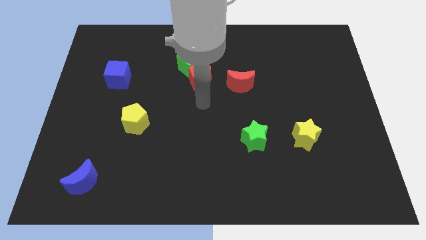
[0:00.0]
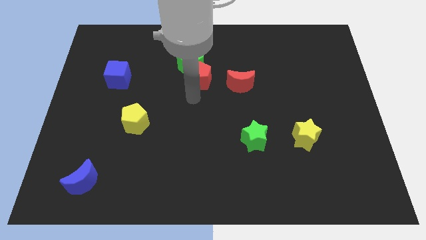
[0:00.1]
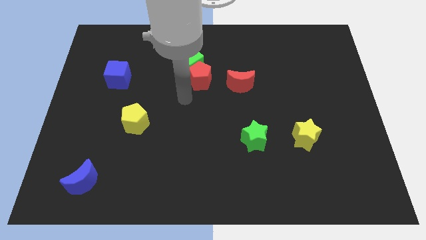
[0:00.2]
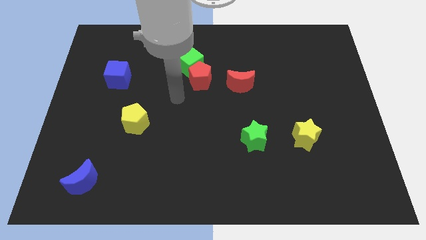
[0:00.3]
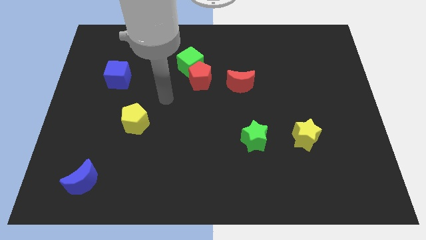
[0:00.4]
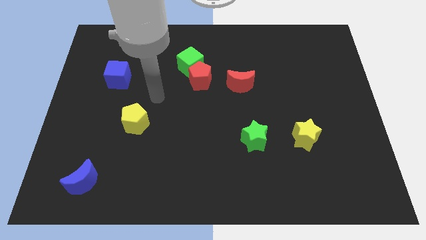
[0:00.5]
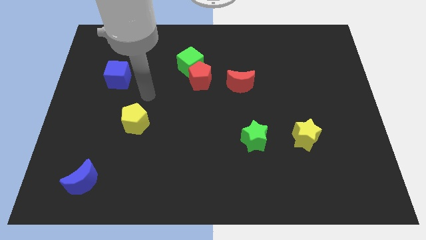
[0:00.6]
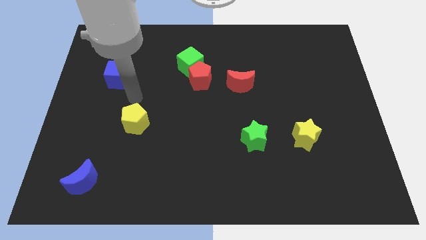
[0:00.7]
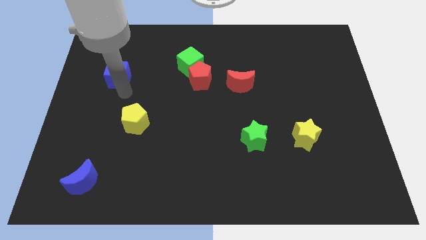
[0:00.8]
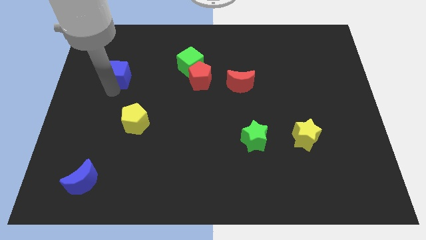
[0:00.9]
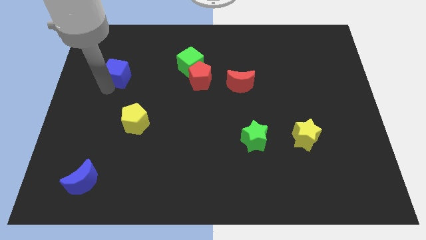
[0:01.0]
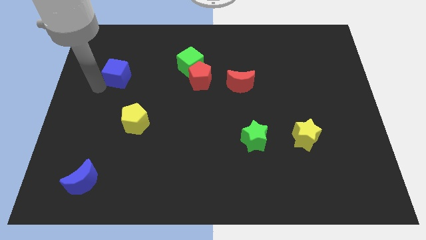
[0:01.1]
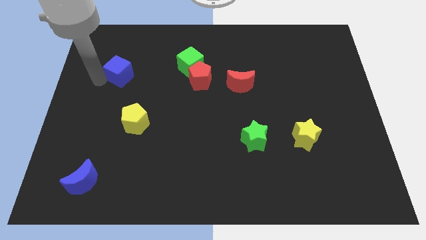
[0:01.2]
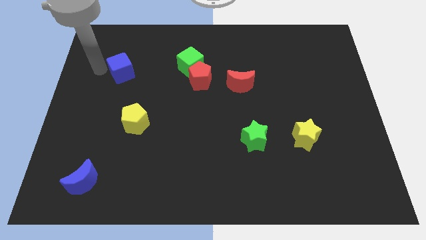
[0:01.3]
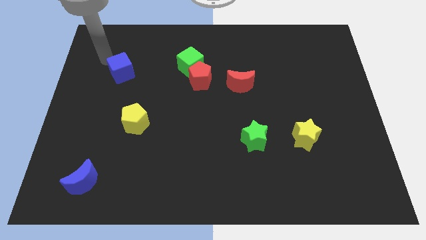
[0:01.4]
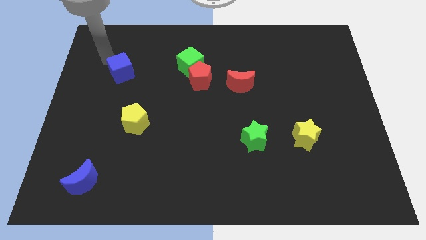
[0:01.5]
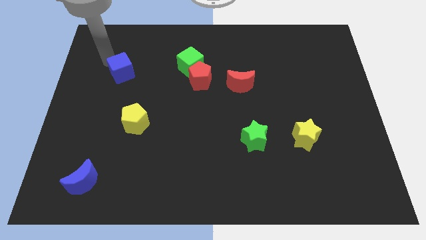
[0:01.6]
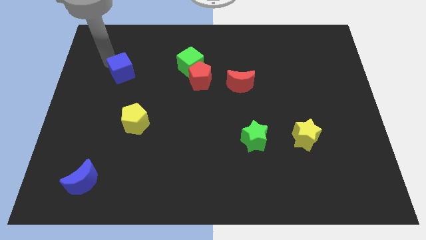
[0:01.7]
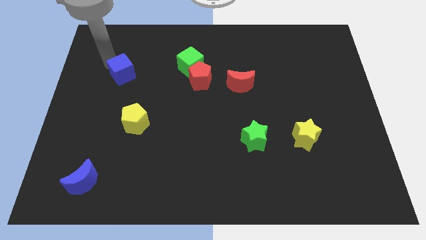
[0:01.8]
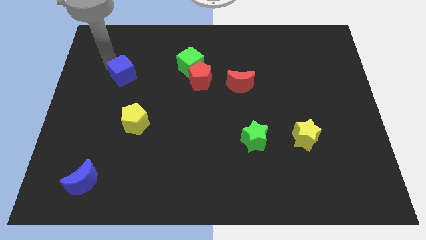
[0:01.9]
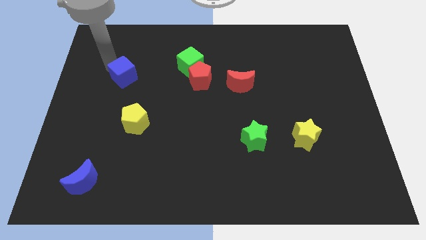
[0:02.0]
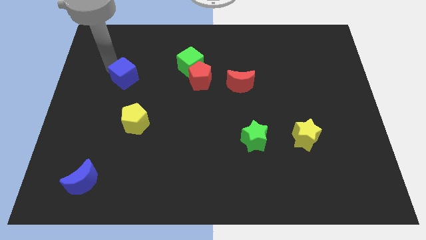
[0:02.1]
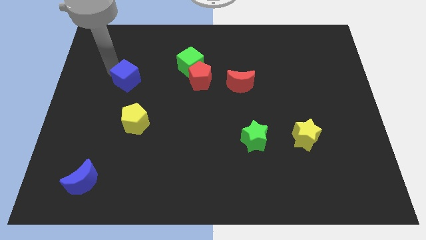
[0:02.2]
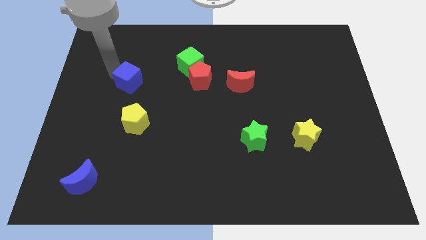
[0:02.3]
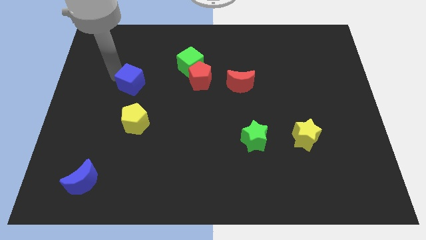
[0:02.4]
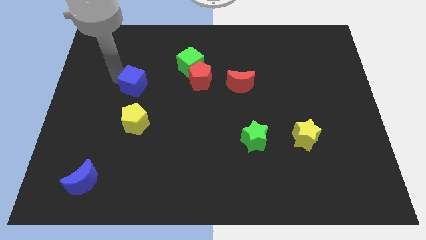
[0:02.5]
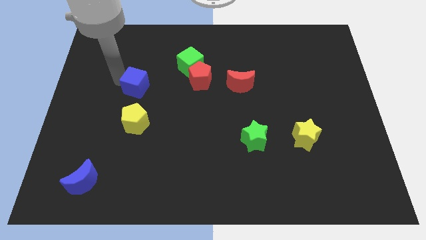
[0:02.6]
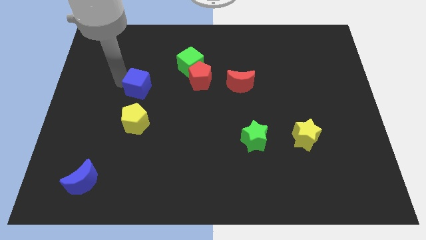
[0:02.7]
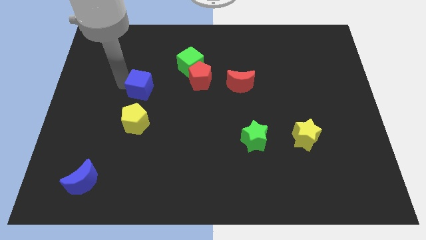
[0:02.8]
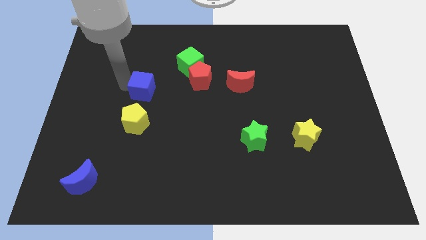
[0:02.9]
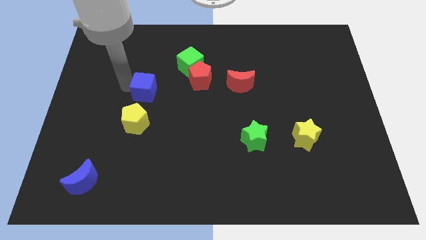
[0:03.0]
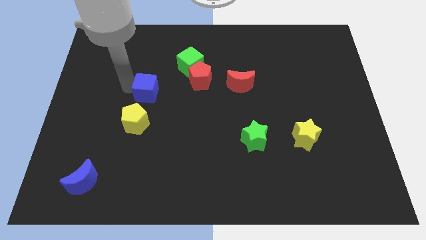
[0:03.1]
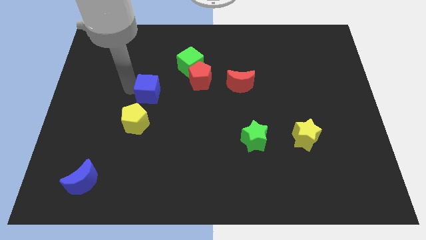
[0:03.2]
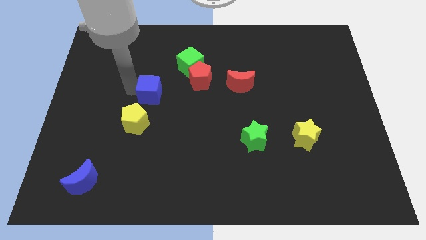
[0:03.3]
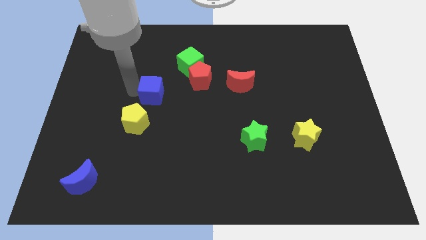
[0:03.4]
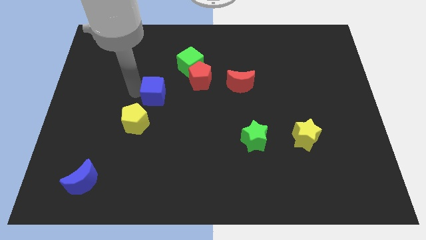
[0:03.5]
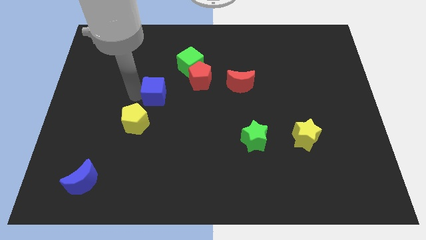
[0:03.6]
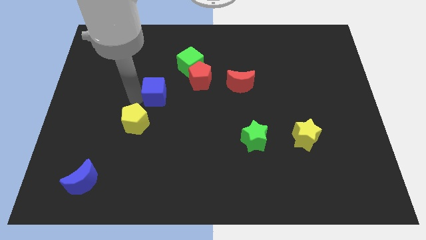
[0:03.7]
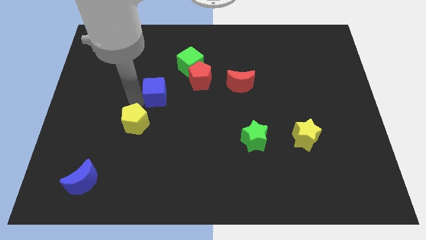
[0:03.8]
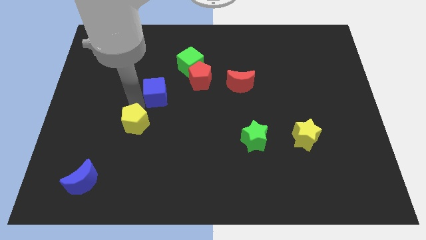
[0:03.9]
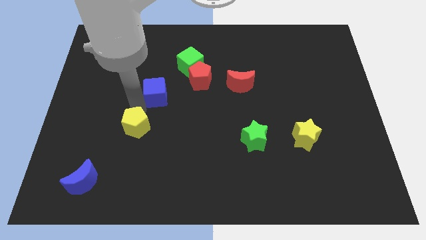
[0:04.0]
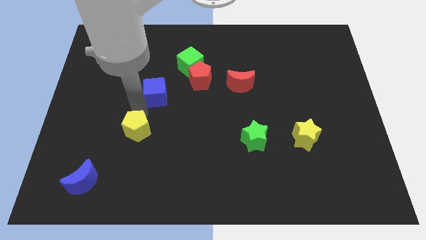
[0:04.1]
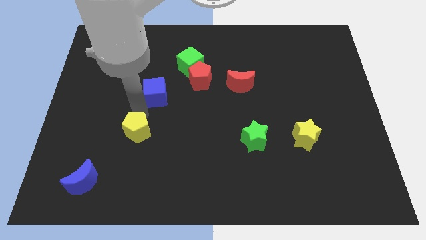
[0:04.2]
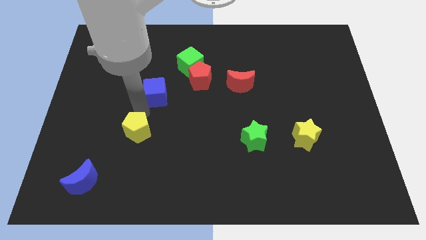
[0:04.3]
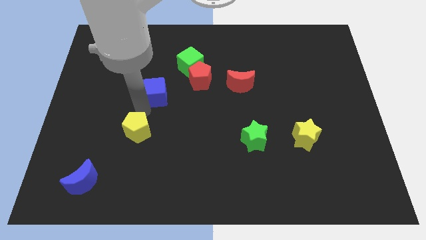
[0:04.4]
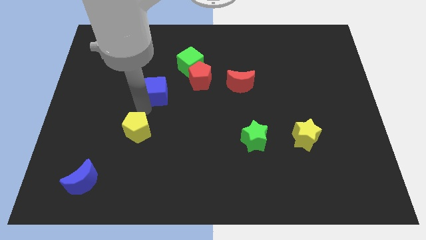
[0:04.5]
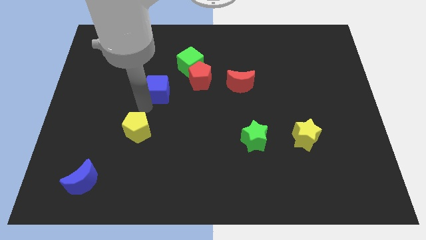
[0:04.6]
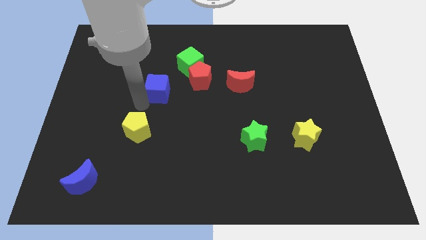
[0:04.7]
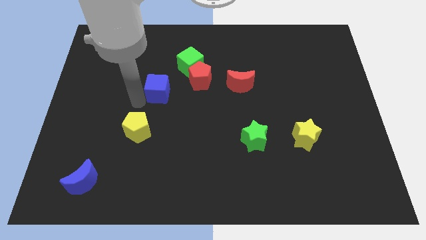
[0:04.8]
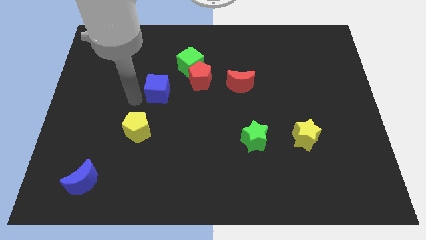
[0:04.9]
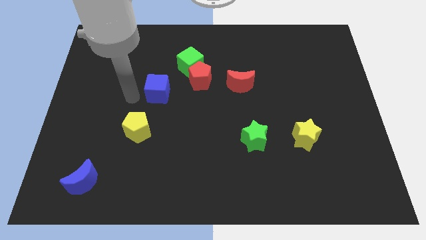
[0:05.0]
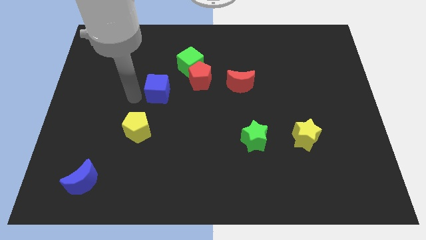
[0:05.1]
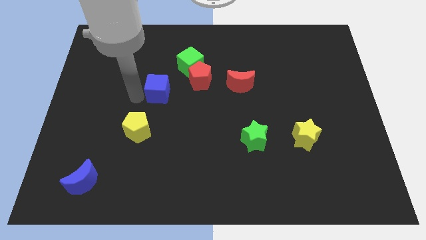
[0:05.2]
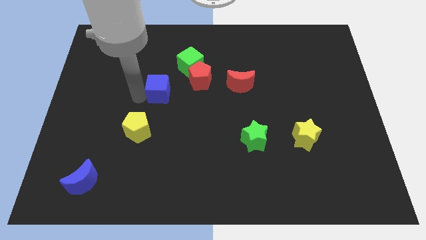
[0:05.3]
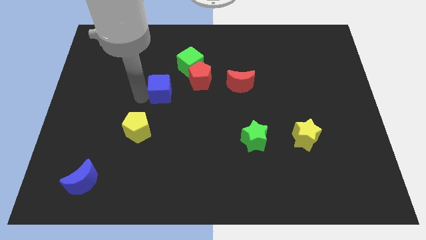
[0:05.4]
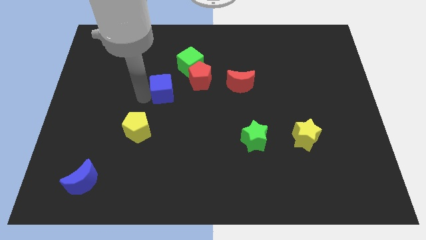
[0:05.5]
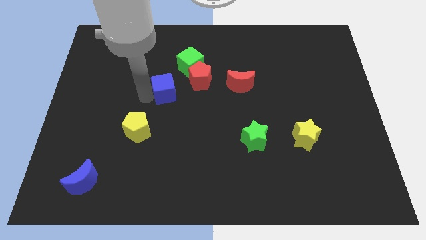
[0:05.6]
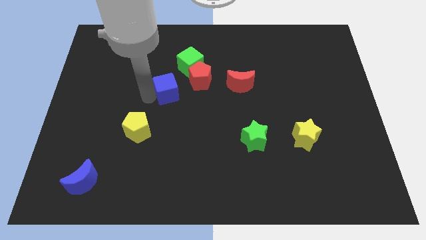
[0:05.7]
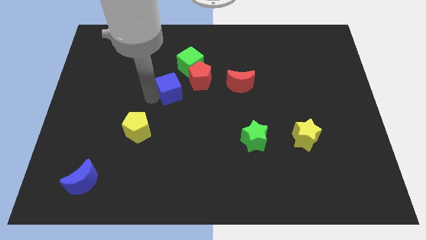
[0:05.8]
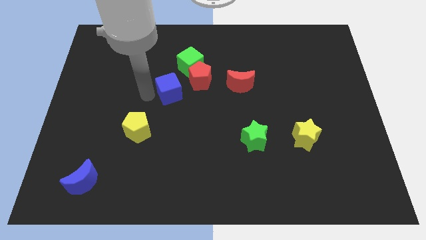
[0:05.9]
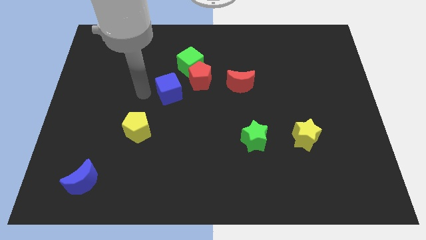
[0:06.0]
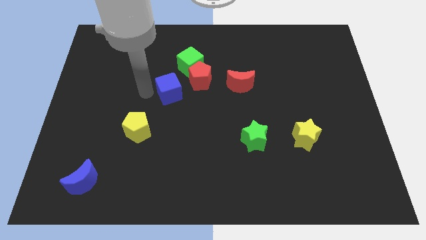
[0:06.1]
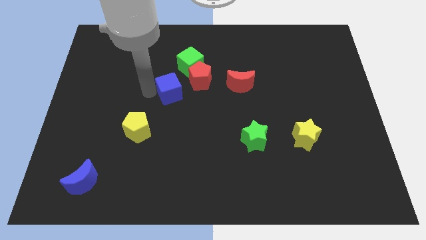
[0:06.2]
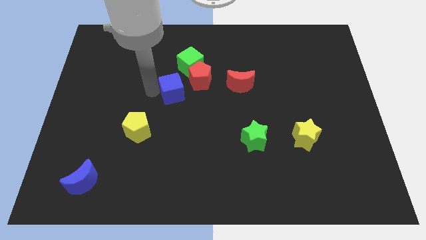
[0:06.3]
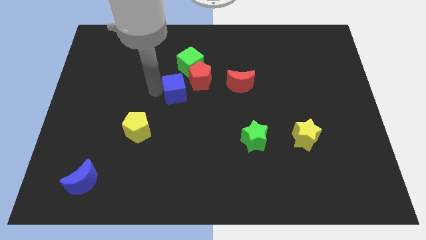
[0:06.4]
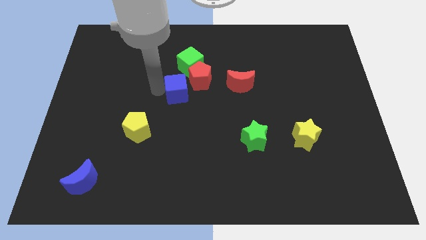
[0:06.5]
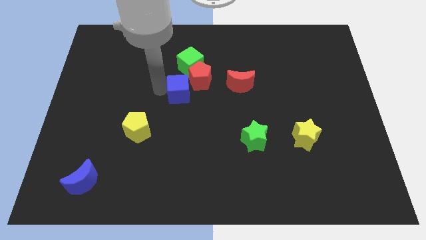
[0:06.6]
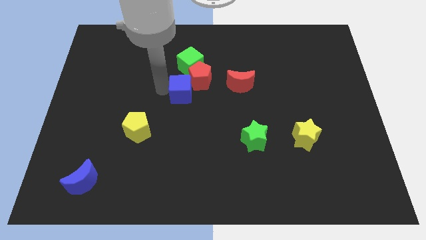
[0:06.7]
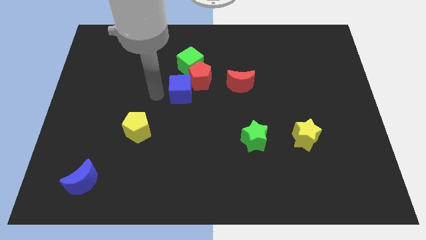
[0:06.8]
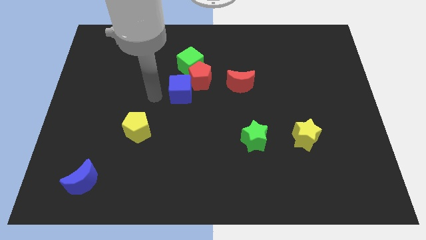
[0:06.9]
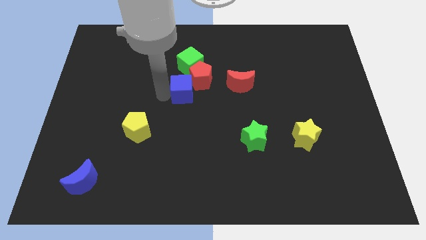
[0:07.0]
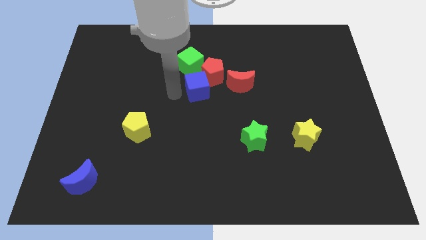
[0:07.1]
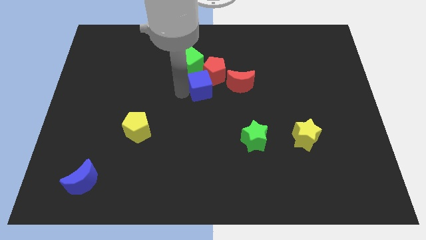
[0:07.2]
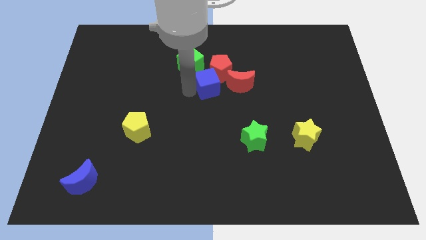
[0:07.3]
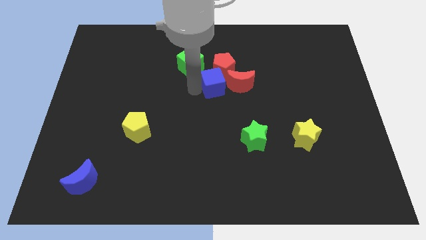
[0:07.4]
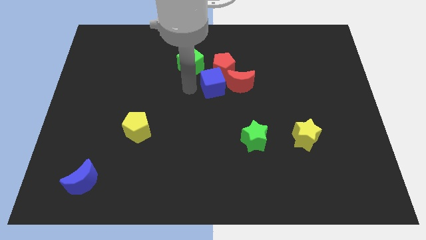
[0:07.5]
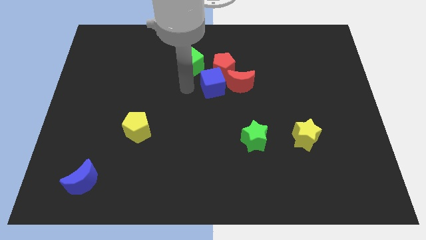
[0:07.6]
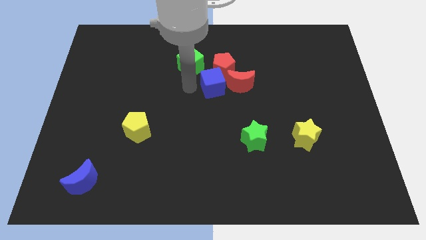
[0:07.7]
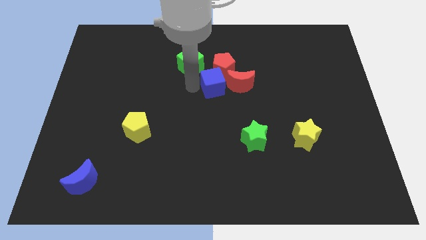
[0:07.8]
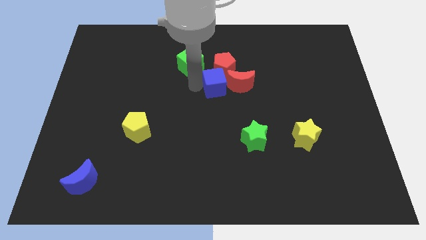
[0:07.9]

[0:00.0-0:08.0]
push the blue cube to the red moon
